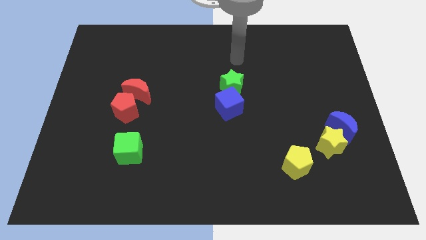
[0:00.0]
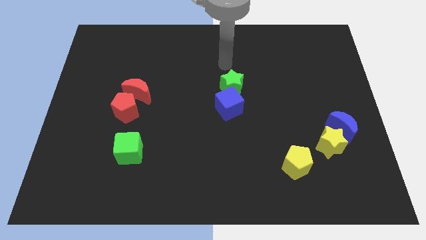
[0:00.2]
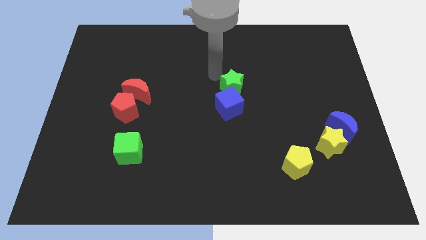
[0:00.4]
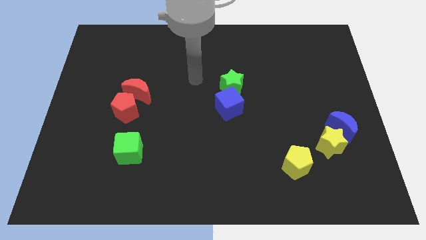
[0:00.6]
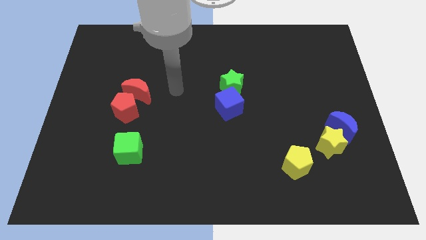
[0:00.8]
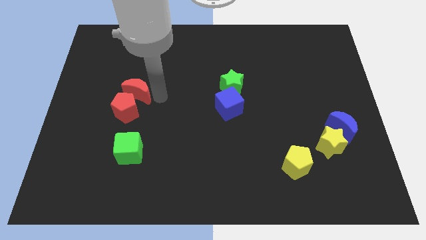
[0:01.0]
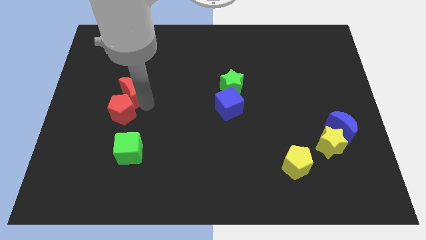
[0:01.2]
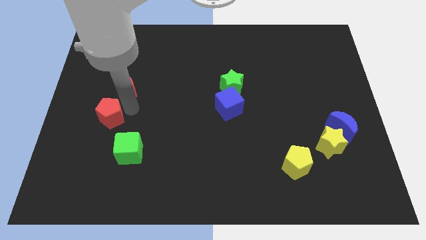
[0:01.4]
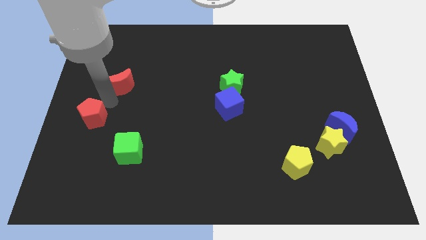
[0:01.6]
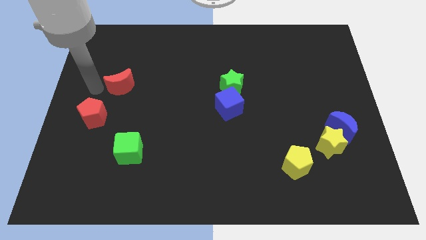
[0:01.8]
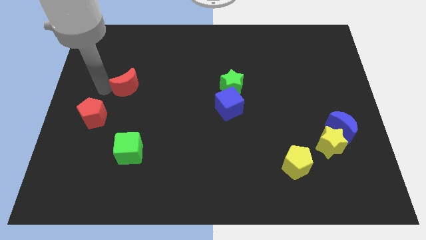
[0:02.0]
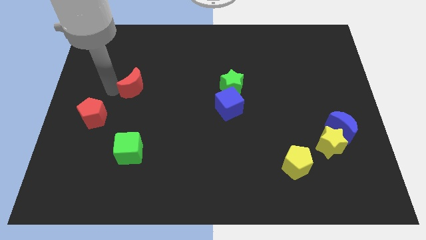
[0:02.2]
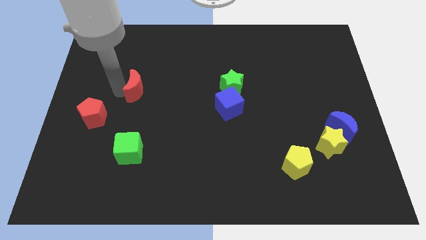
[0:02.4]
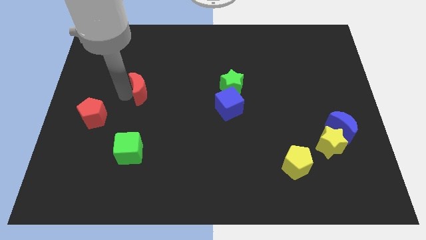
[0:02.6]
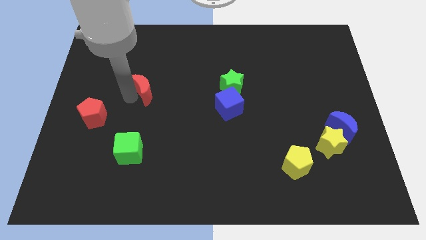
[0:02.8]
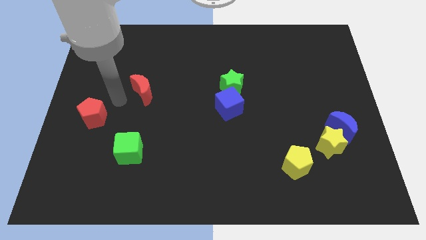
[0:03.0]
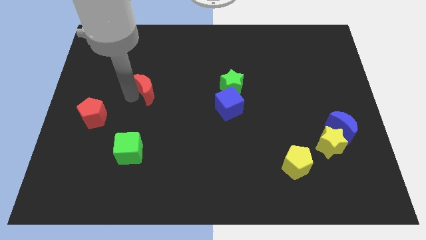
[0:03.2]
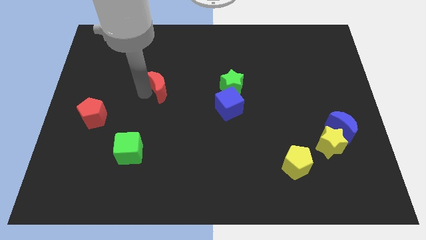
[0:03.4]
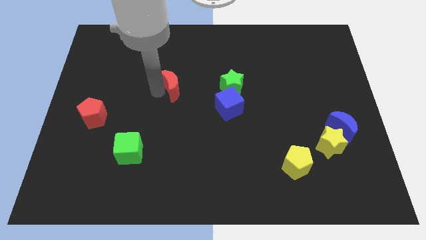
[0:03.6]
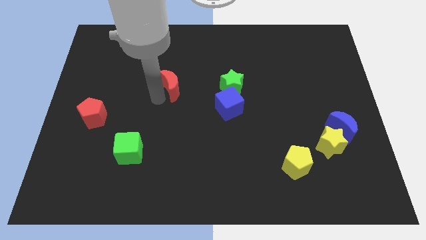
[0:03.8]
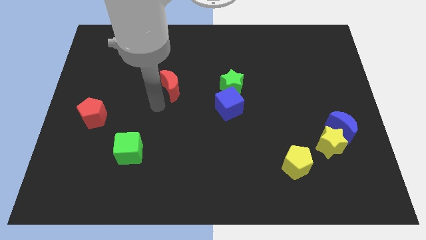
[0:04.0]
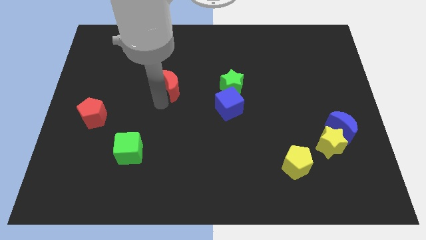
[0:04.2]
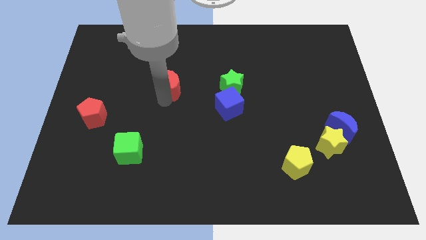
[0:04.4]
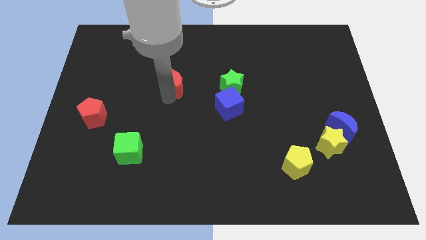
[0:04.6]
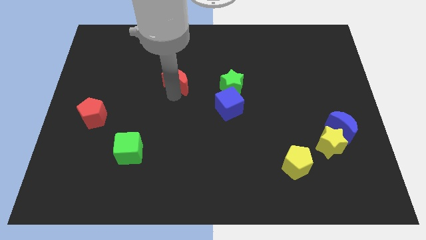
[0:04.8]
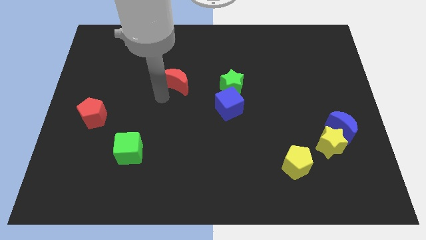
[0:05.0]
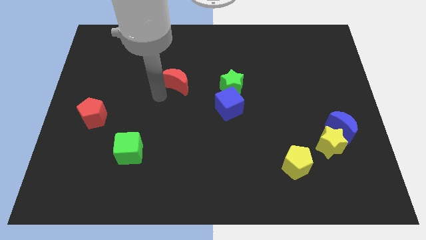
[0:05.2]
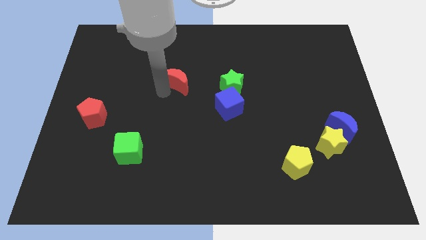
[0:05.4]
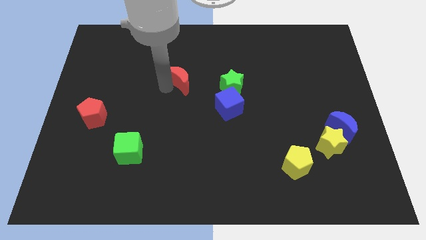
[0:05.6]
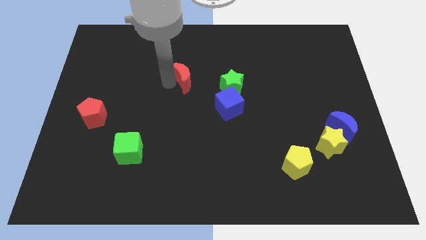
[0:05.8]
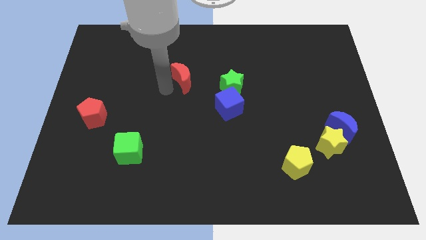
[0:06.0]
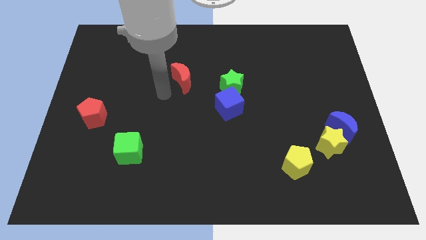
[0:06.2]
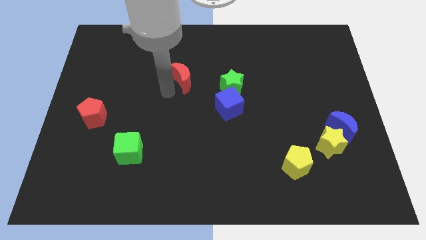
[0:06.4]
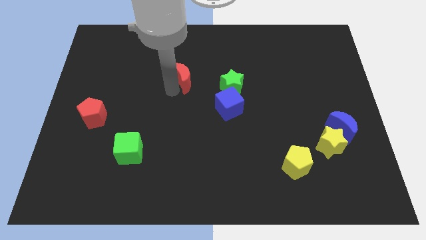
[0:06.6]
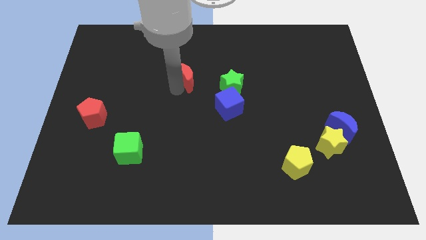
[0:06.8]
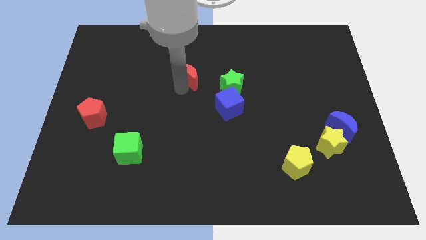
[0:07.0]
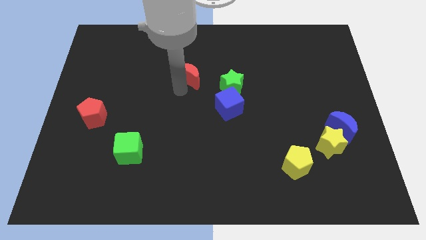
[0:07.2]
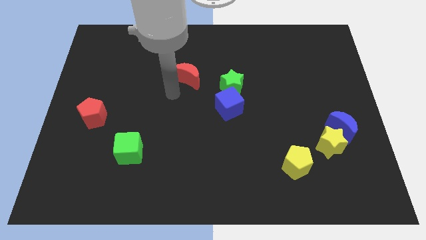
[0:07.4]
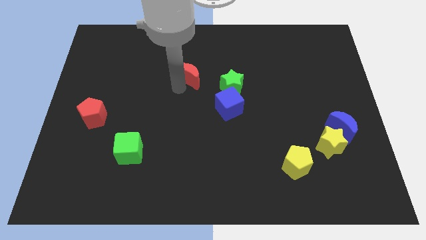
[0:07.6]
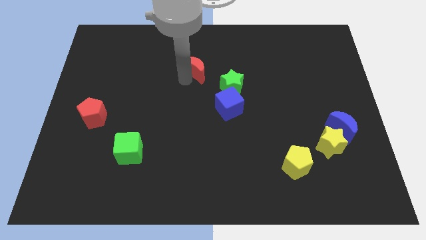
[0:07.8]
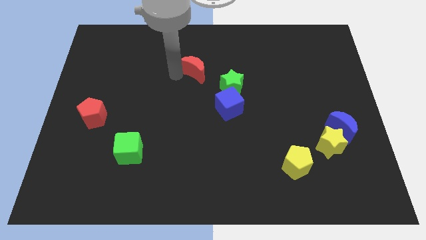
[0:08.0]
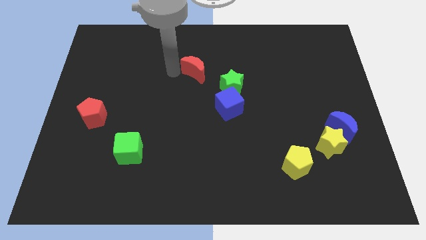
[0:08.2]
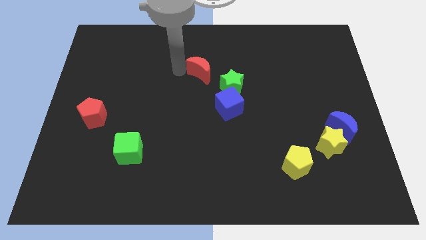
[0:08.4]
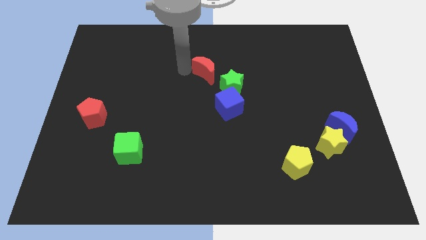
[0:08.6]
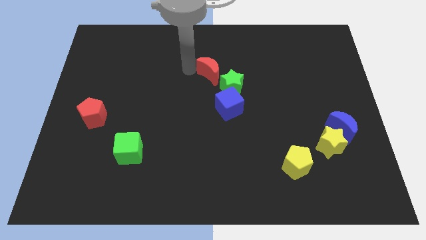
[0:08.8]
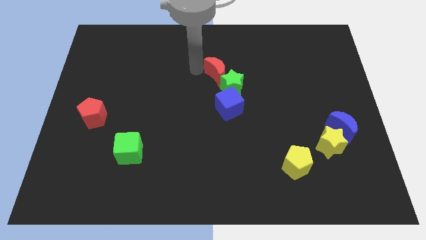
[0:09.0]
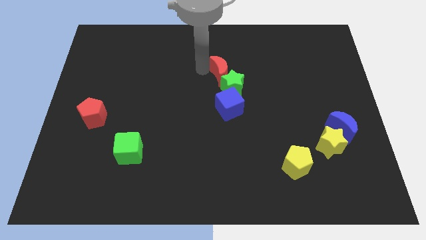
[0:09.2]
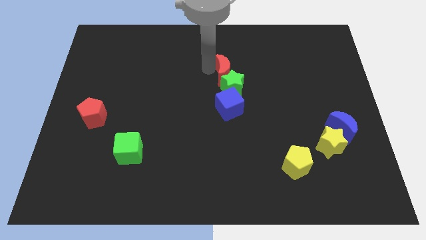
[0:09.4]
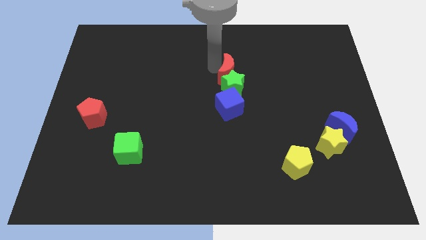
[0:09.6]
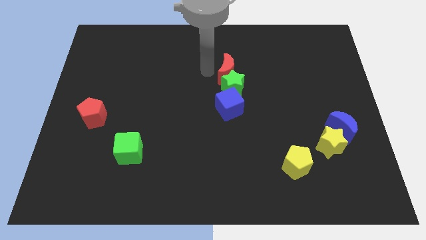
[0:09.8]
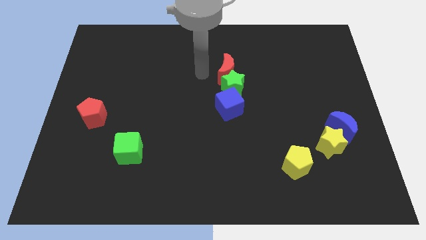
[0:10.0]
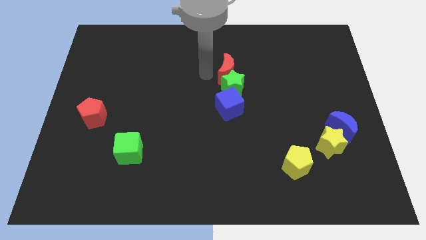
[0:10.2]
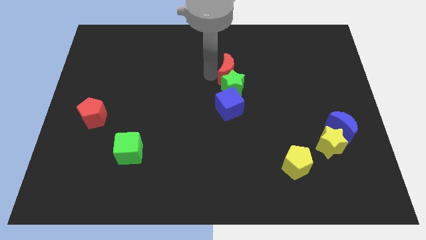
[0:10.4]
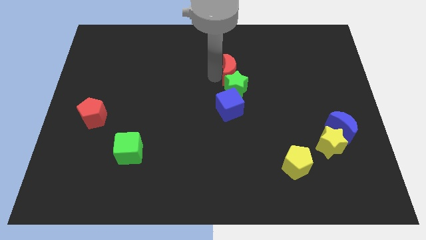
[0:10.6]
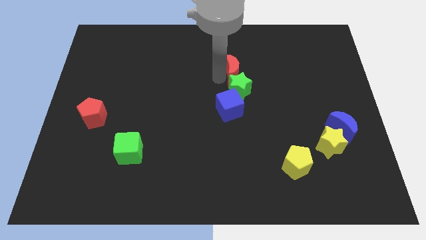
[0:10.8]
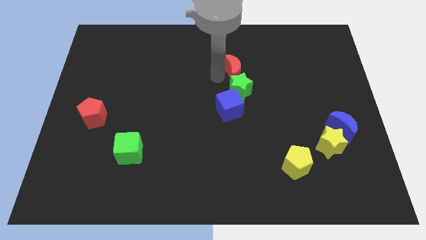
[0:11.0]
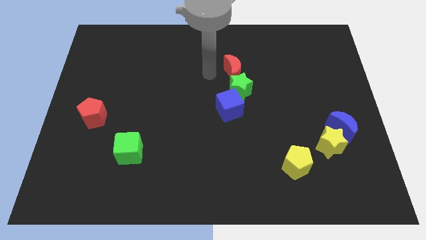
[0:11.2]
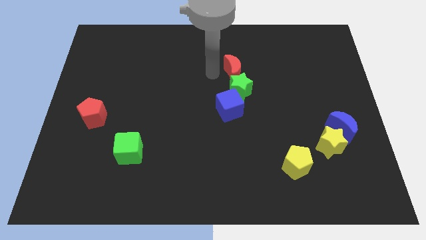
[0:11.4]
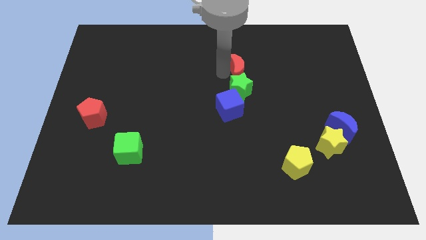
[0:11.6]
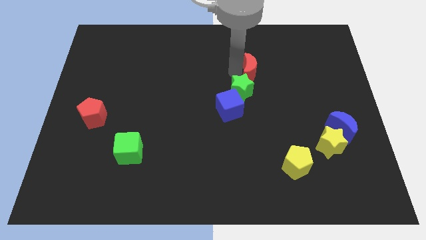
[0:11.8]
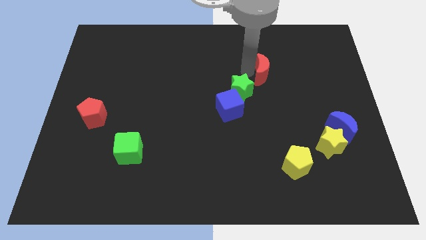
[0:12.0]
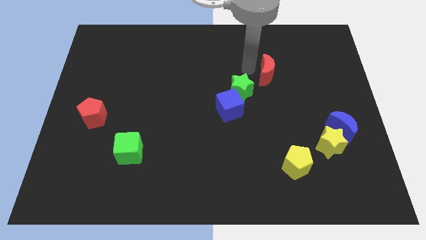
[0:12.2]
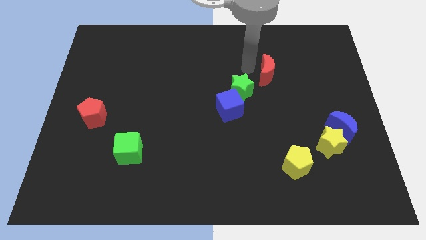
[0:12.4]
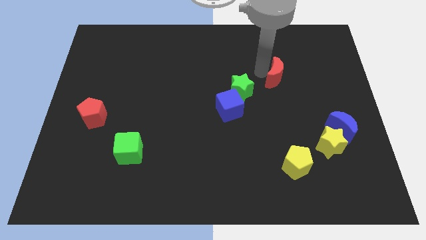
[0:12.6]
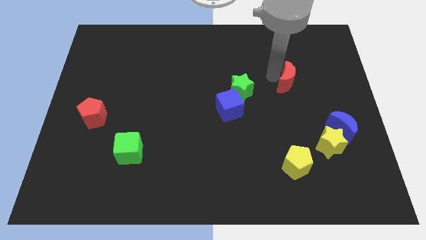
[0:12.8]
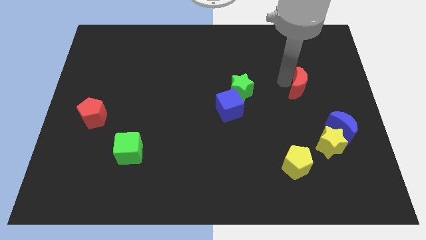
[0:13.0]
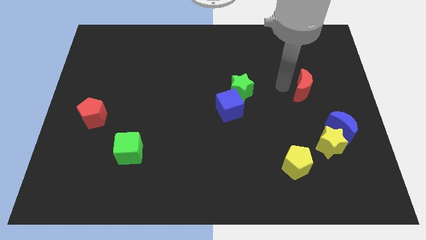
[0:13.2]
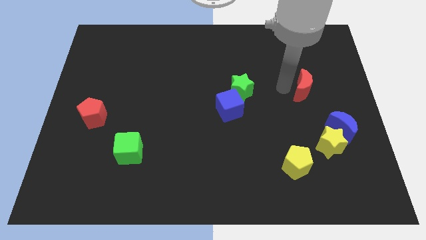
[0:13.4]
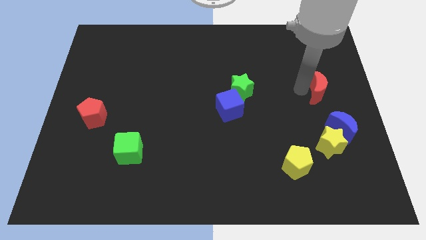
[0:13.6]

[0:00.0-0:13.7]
slide the red moon to the center right
